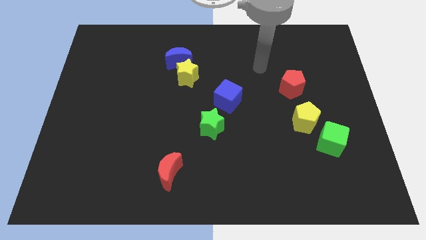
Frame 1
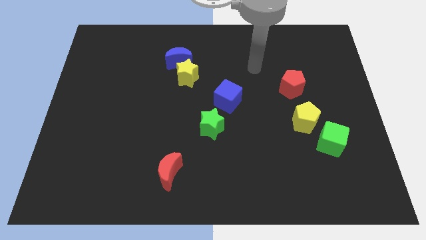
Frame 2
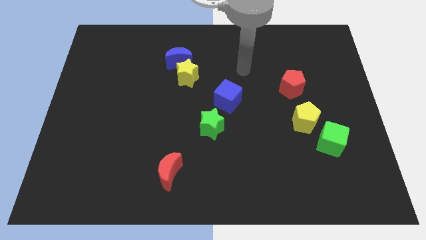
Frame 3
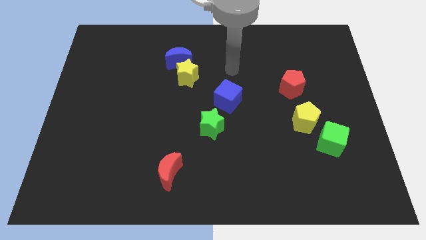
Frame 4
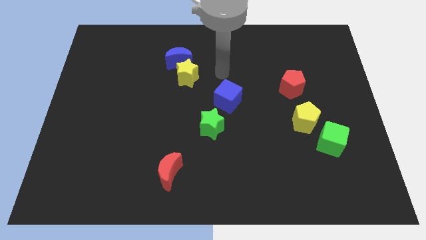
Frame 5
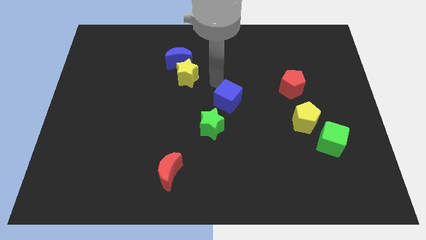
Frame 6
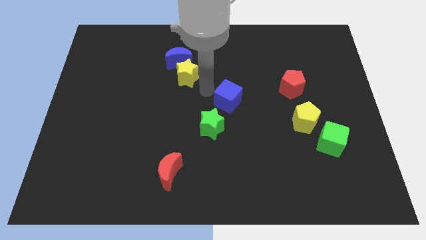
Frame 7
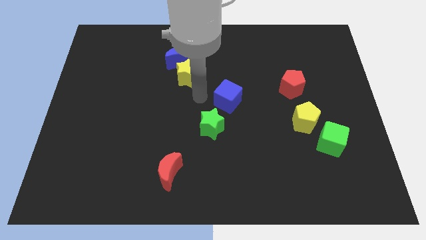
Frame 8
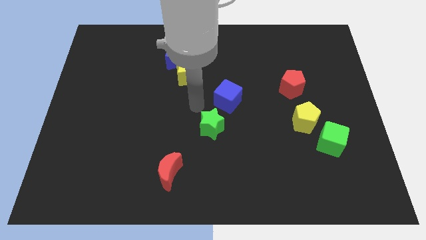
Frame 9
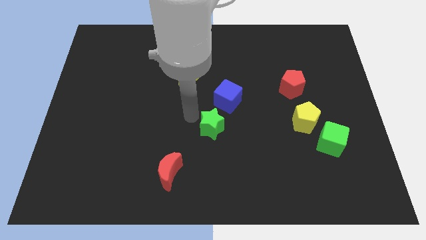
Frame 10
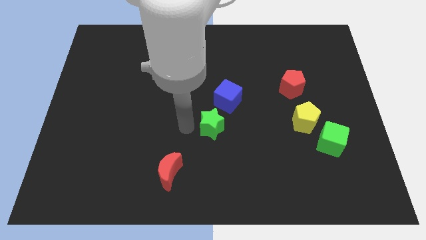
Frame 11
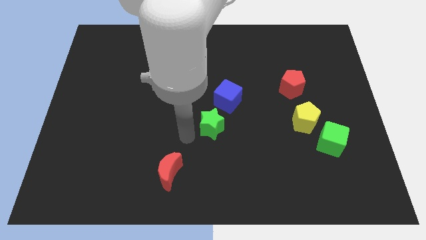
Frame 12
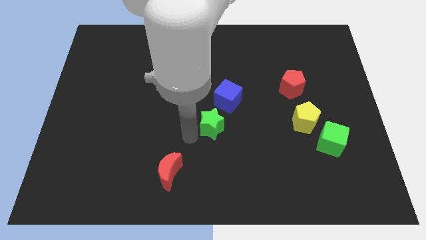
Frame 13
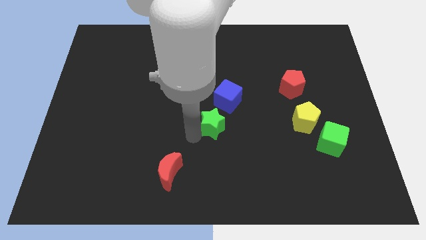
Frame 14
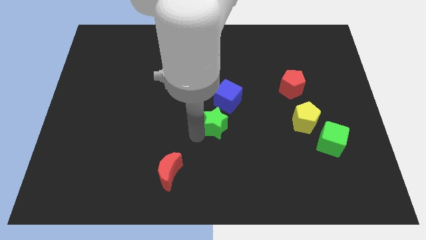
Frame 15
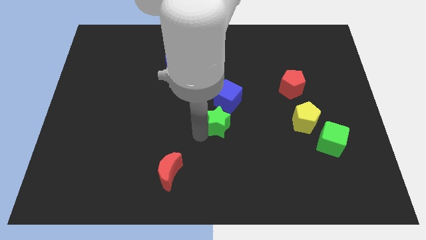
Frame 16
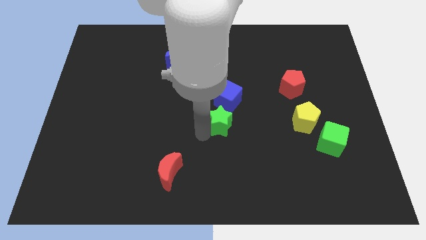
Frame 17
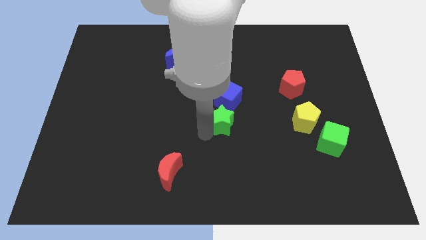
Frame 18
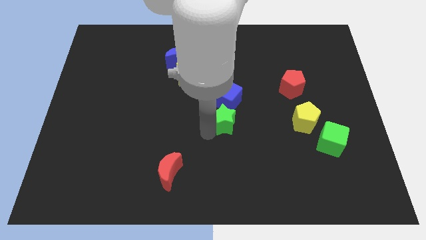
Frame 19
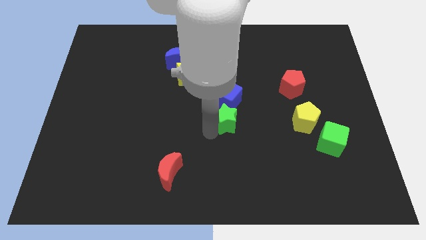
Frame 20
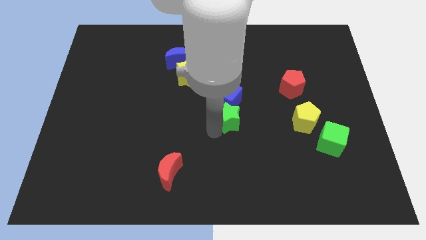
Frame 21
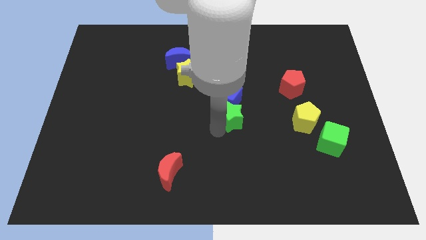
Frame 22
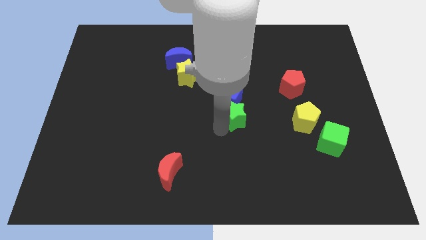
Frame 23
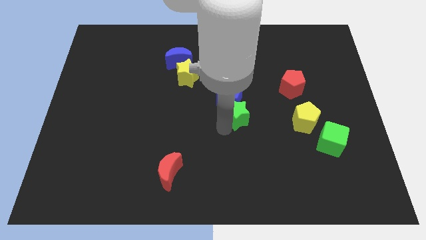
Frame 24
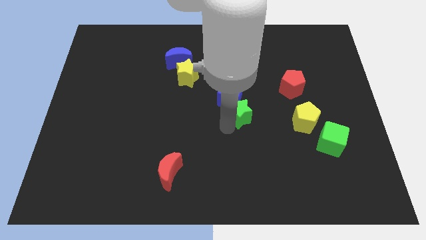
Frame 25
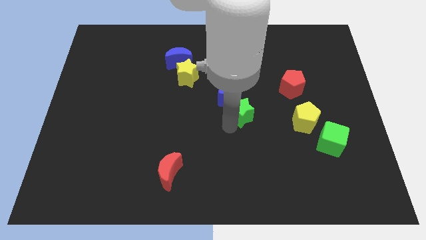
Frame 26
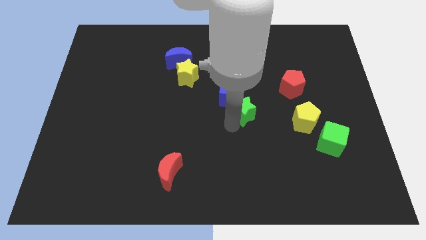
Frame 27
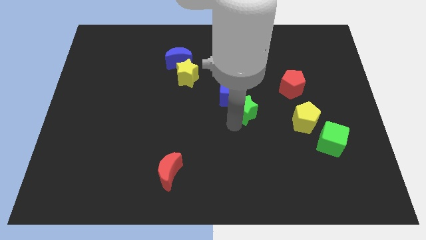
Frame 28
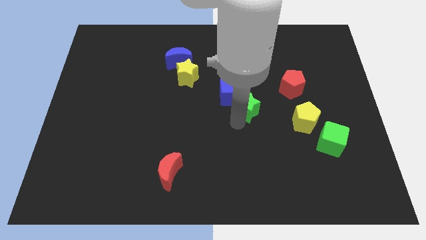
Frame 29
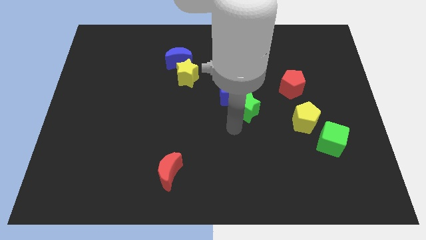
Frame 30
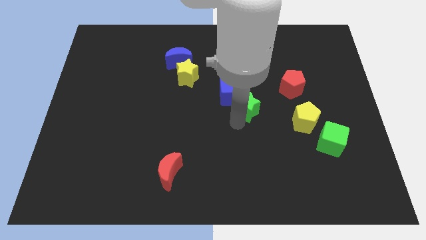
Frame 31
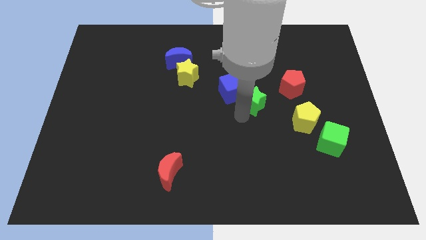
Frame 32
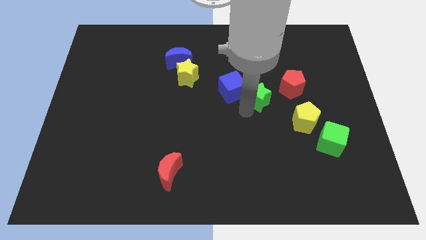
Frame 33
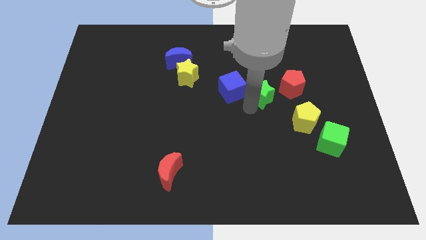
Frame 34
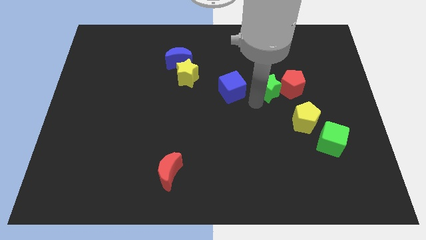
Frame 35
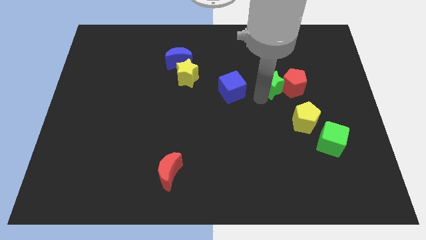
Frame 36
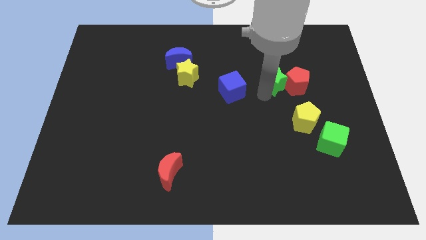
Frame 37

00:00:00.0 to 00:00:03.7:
move the green star up and right diagonally

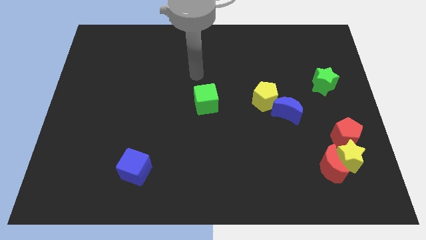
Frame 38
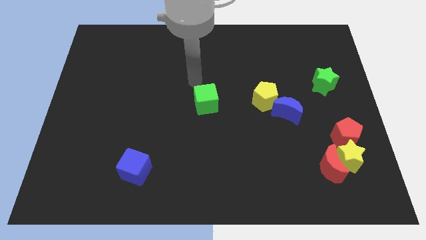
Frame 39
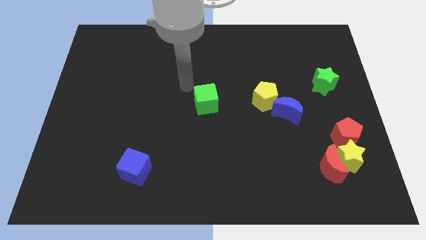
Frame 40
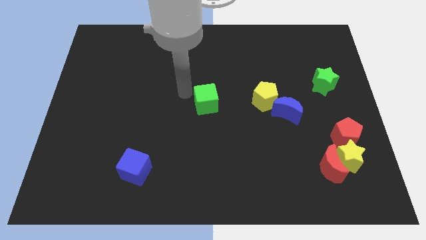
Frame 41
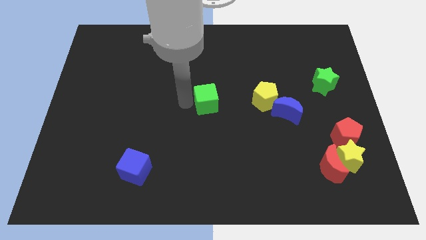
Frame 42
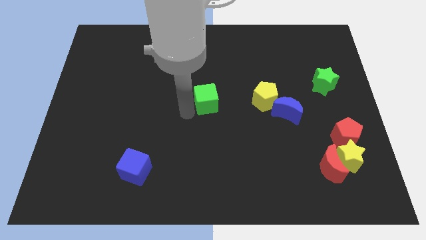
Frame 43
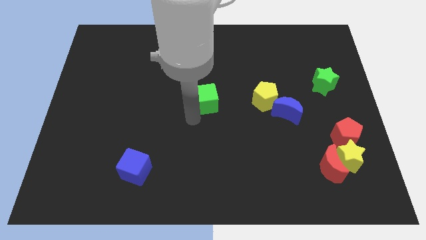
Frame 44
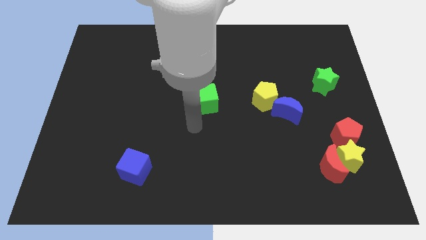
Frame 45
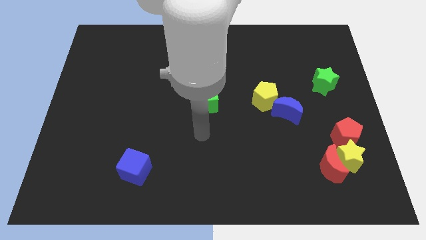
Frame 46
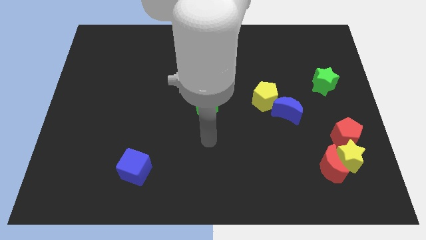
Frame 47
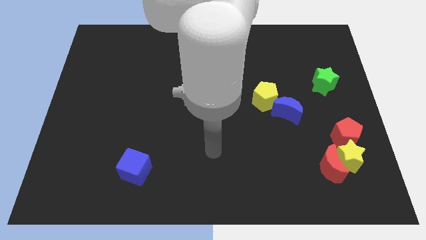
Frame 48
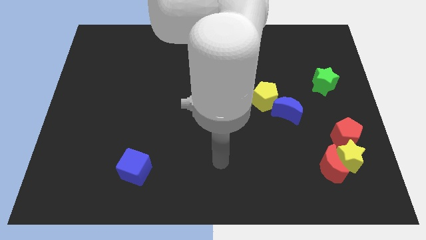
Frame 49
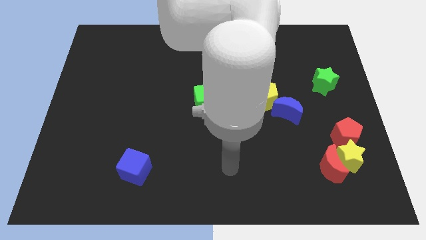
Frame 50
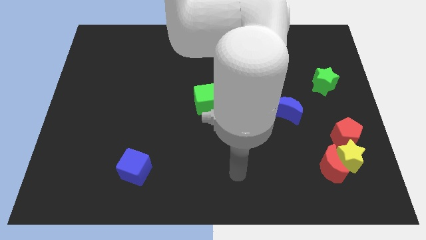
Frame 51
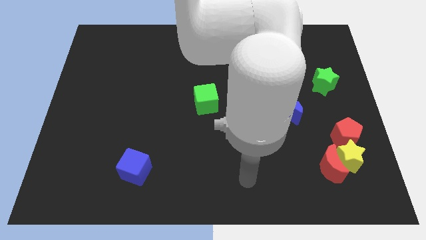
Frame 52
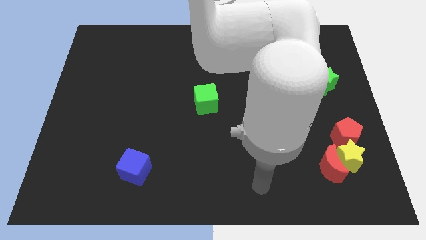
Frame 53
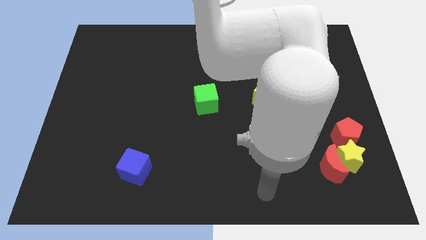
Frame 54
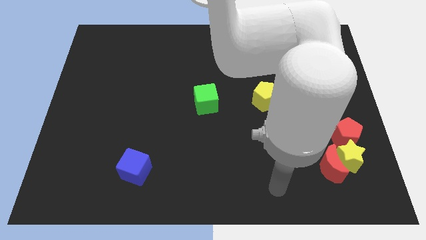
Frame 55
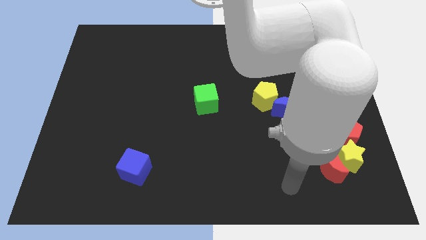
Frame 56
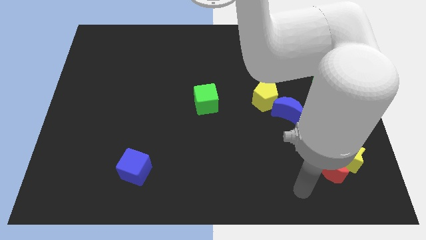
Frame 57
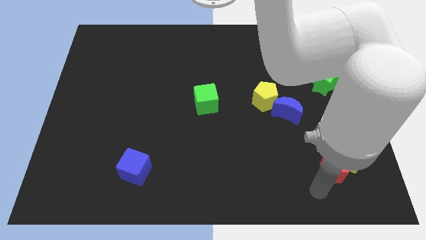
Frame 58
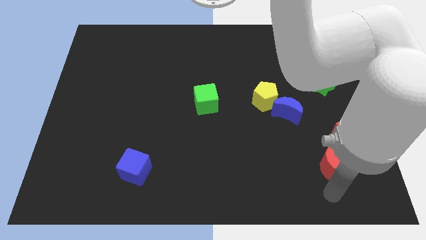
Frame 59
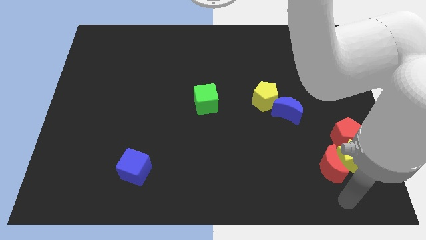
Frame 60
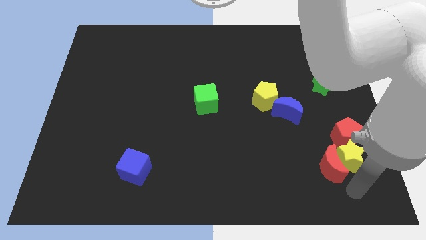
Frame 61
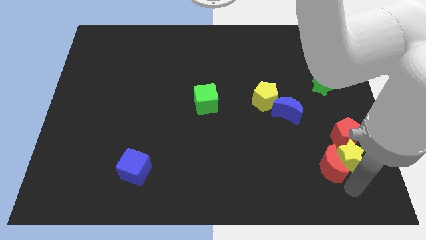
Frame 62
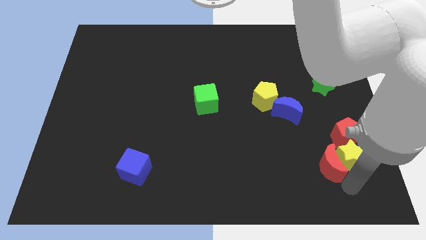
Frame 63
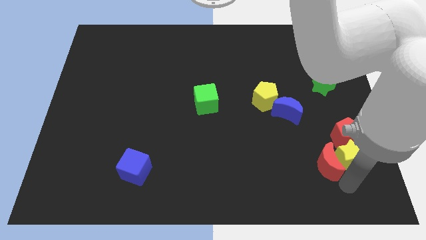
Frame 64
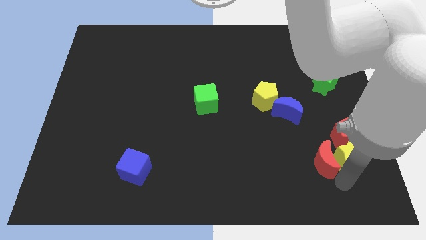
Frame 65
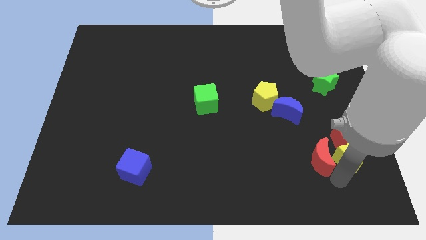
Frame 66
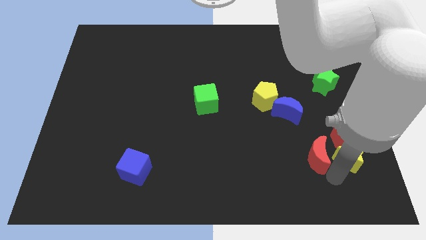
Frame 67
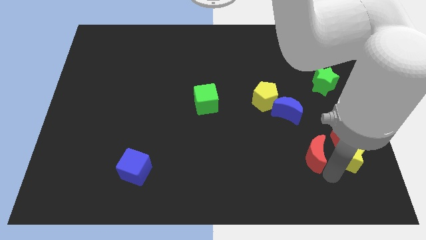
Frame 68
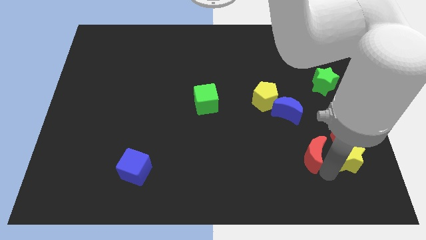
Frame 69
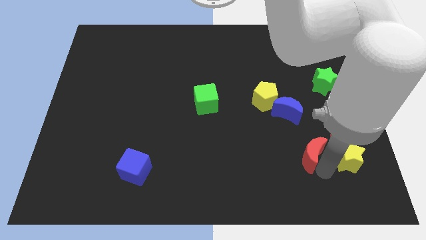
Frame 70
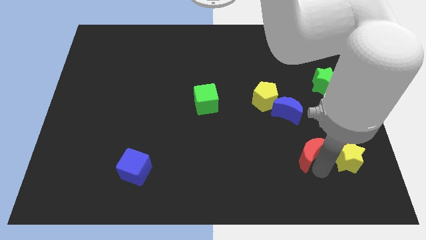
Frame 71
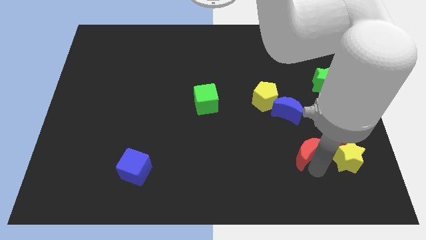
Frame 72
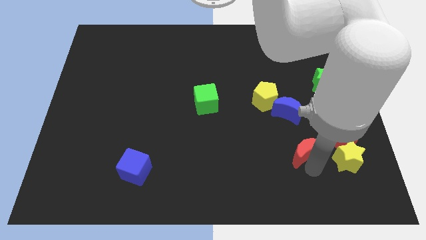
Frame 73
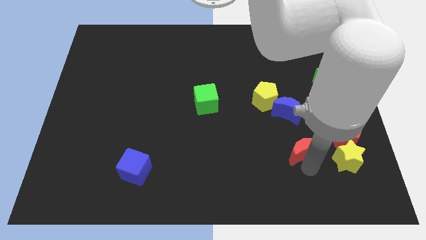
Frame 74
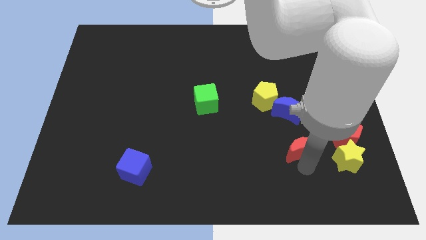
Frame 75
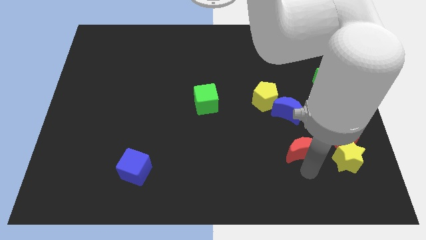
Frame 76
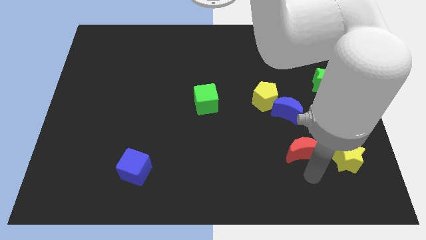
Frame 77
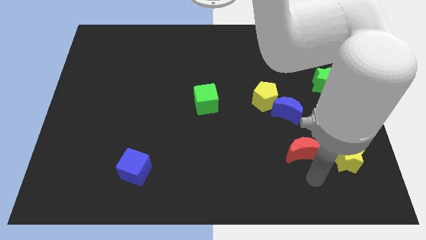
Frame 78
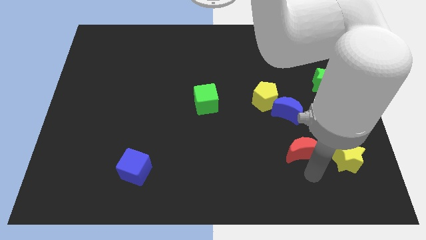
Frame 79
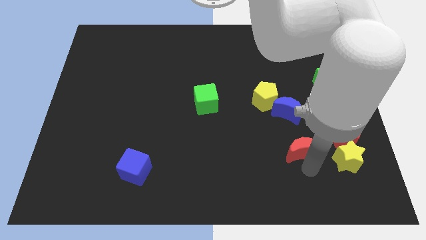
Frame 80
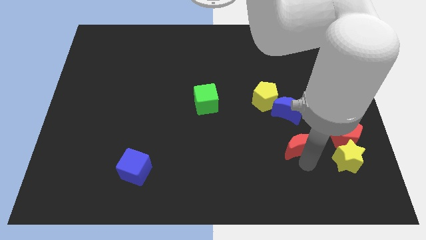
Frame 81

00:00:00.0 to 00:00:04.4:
push the red moon upwards and left diagonally slightly
